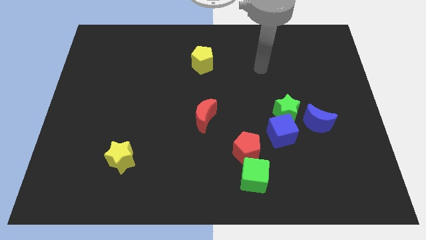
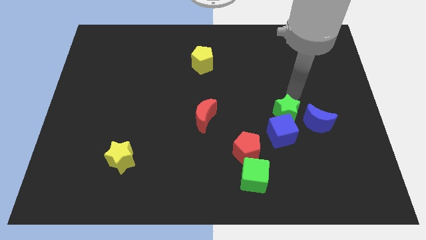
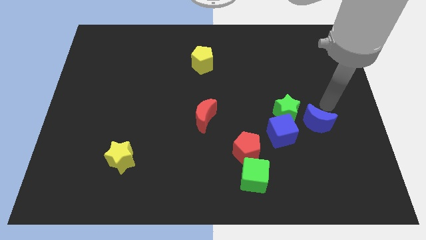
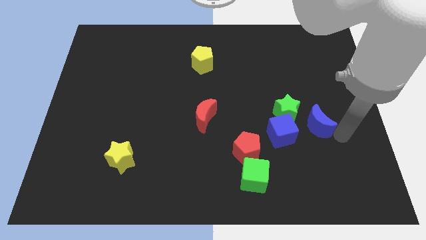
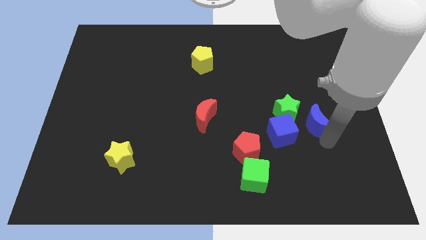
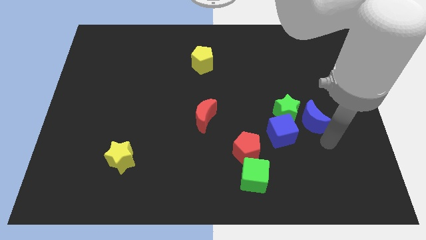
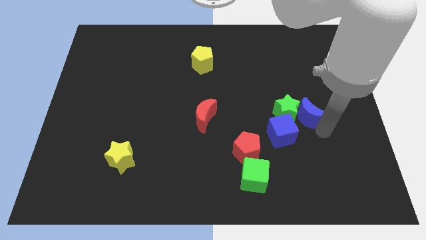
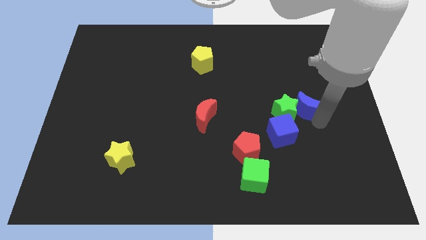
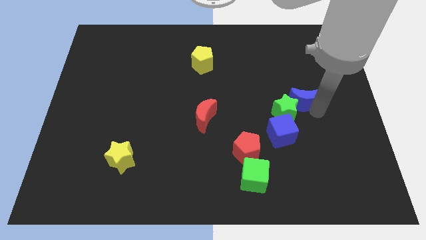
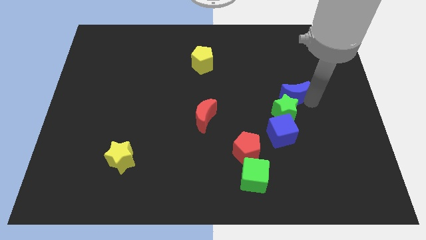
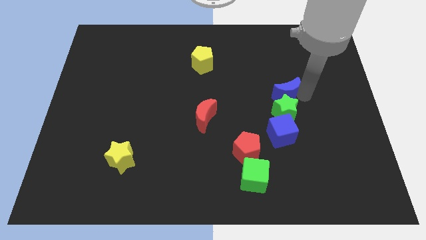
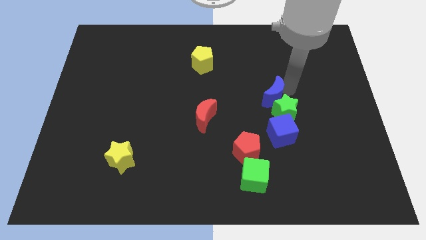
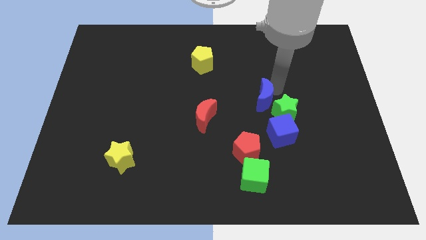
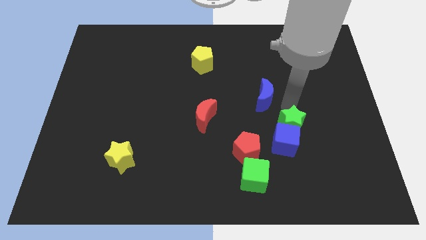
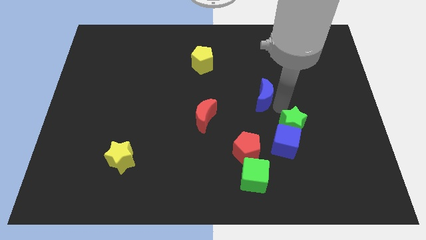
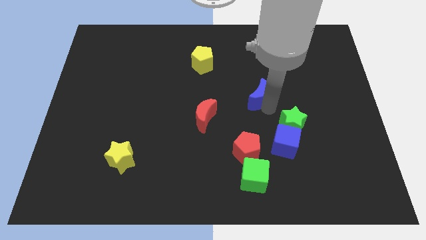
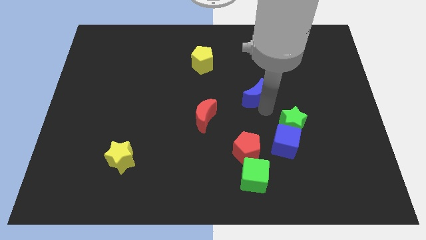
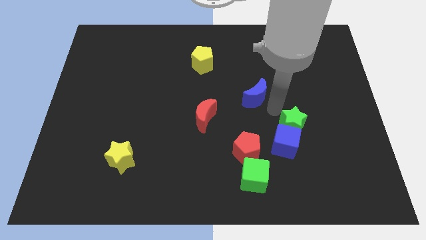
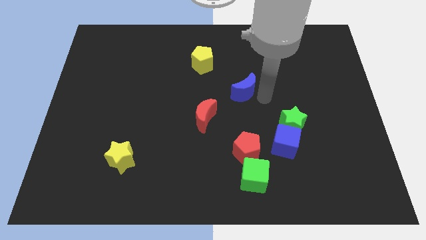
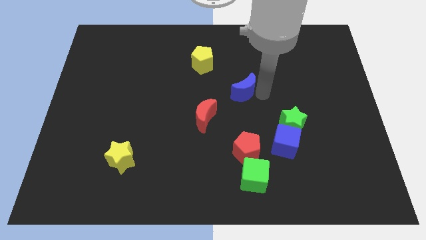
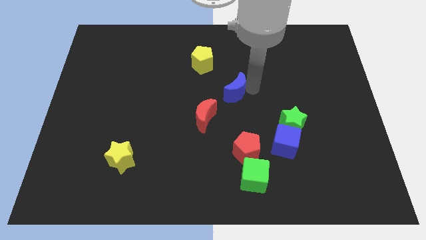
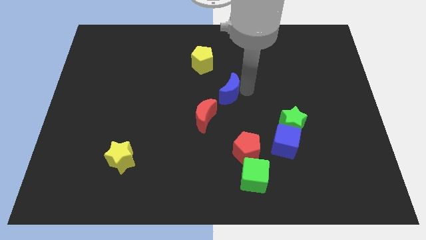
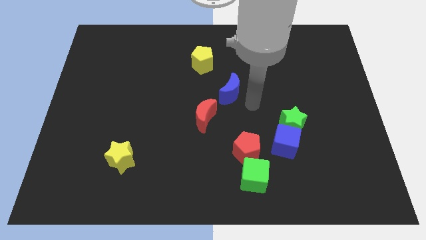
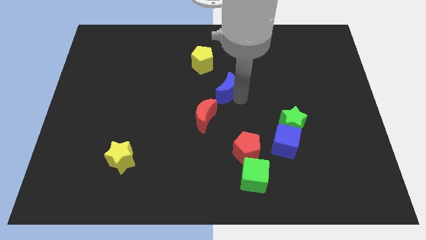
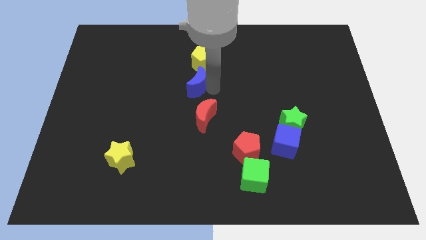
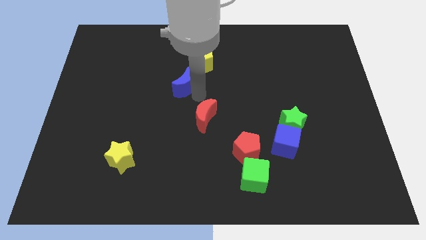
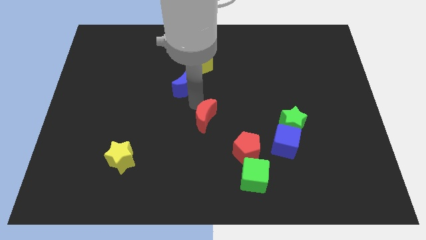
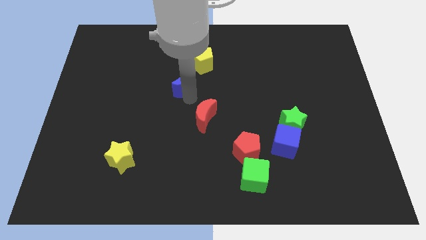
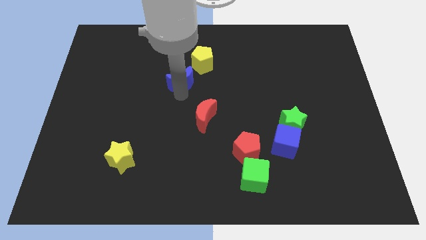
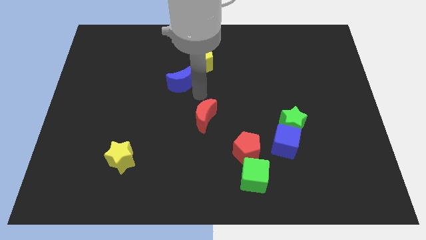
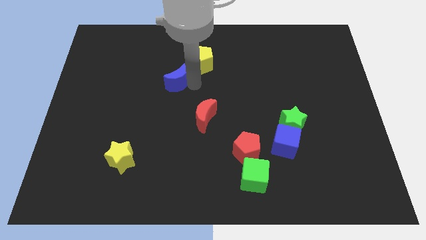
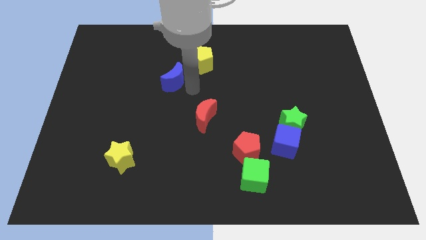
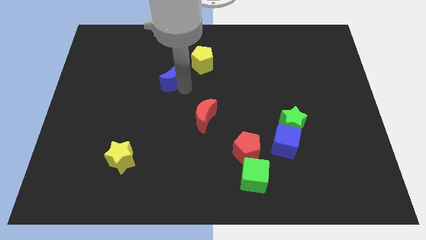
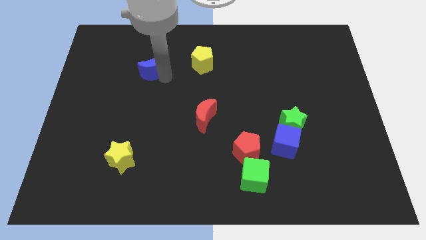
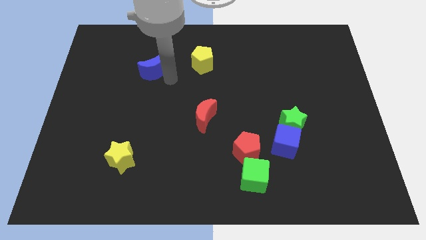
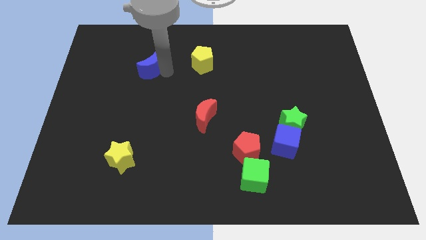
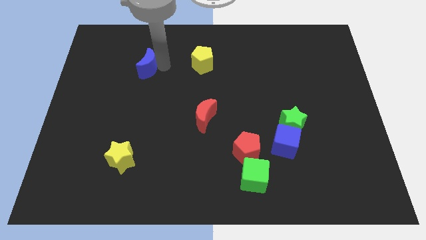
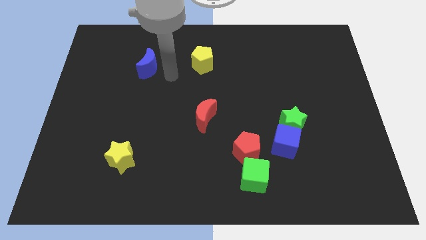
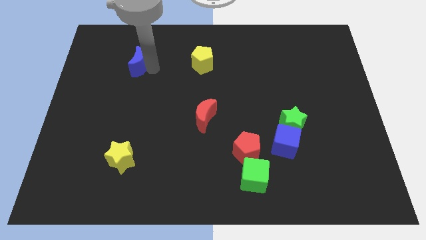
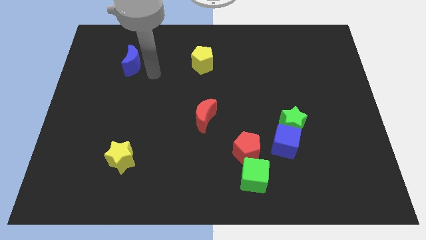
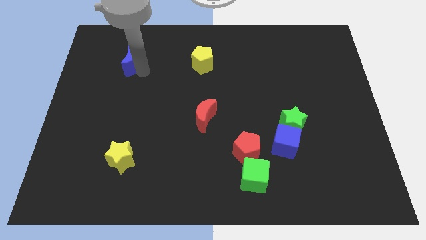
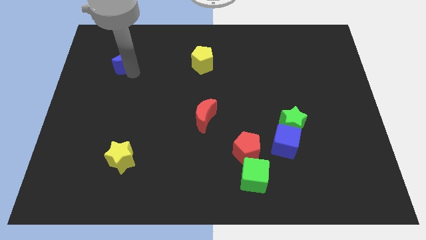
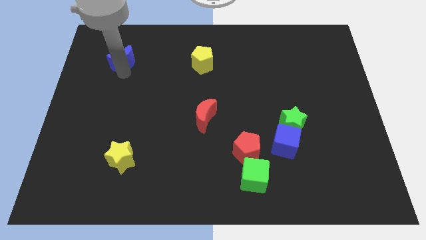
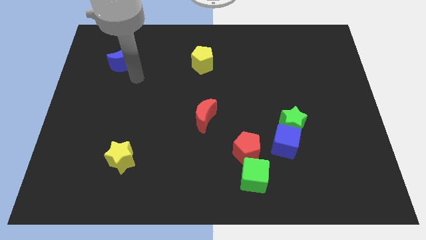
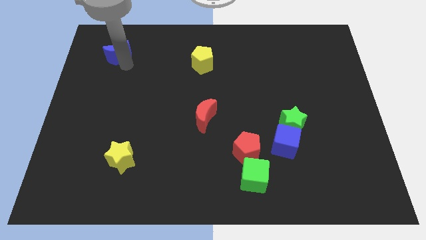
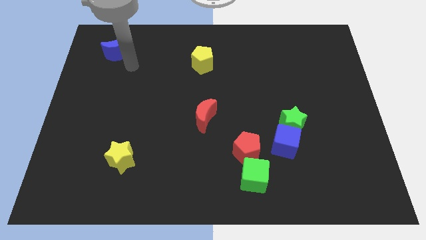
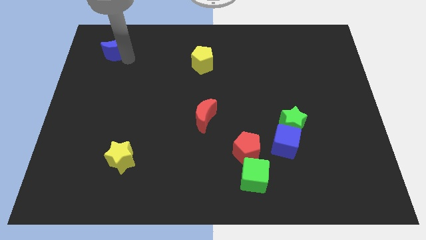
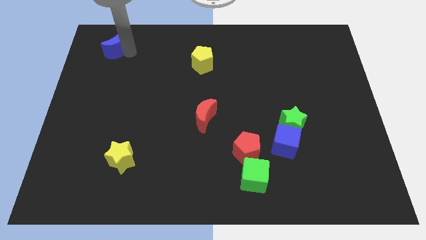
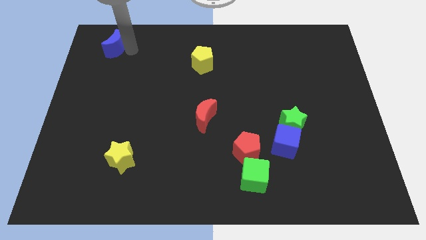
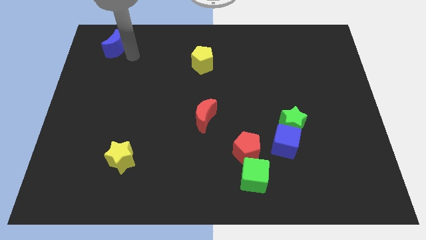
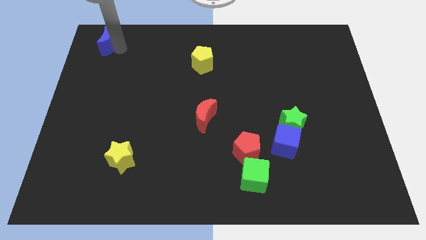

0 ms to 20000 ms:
push the blue moon to the top left of the board

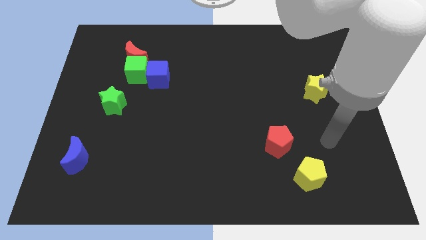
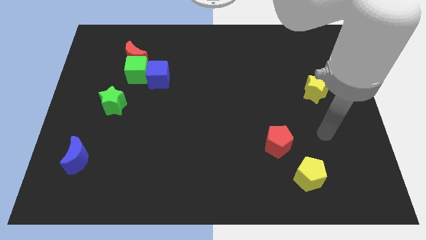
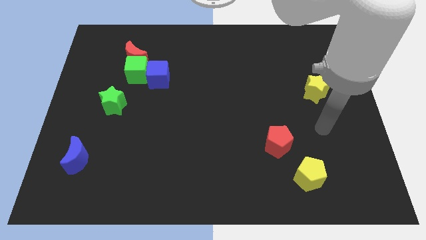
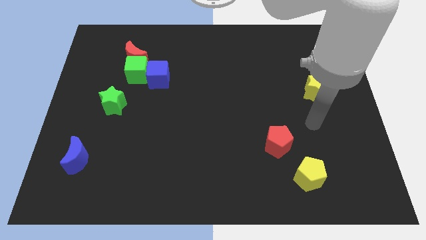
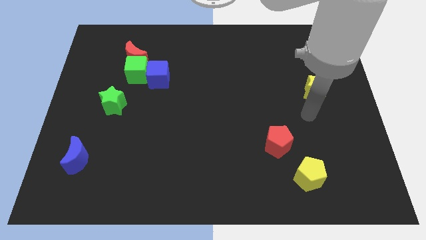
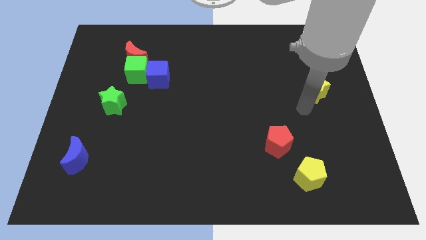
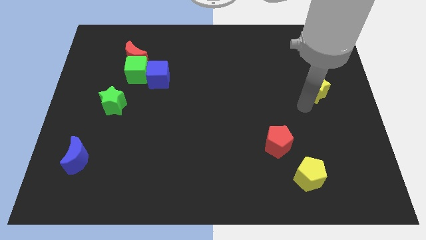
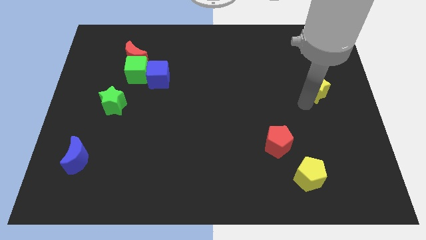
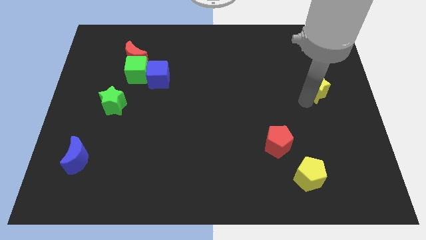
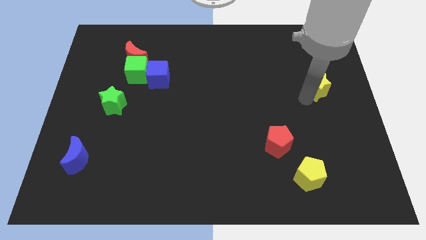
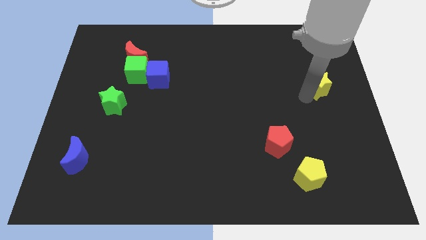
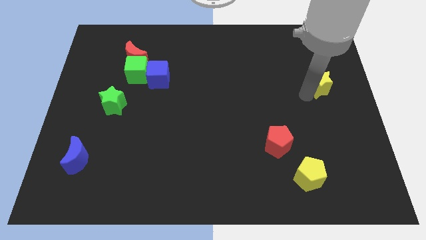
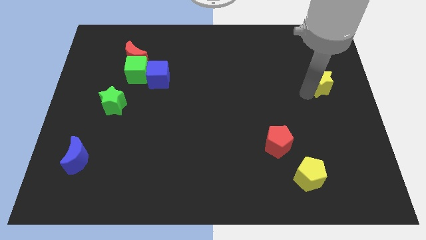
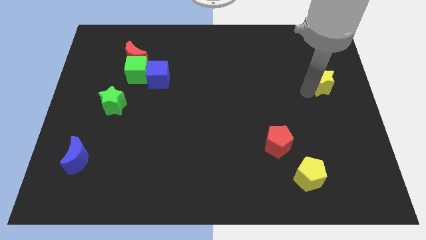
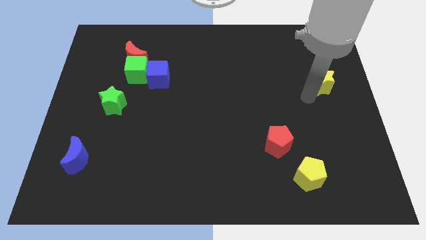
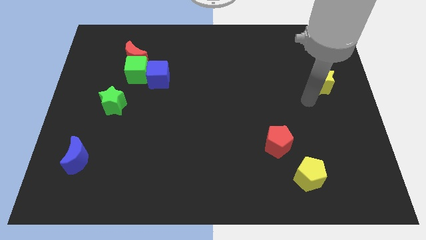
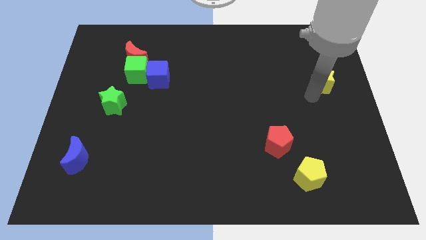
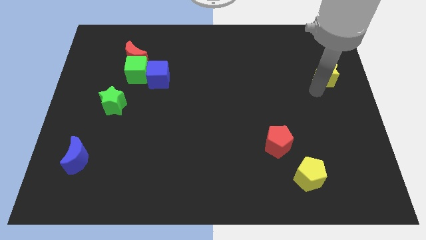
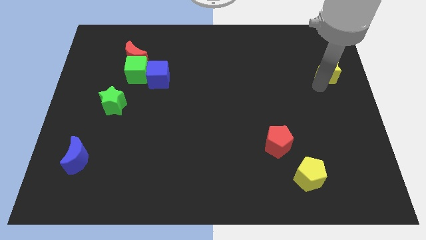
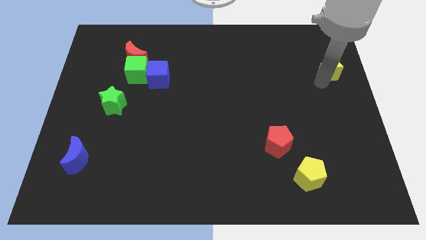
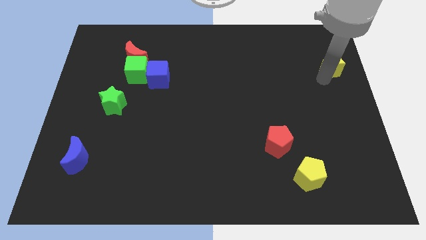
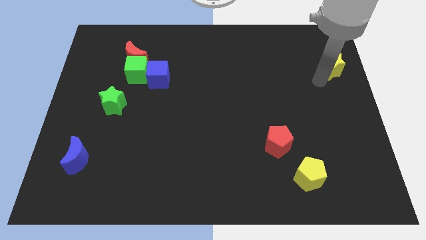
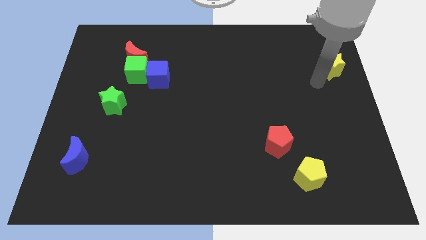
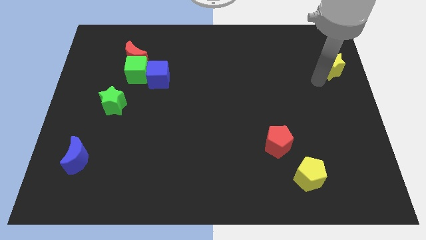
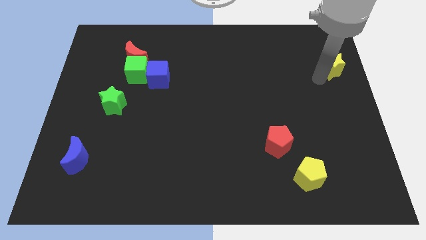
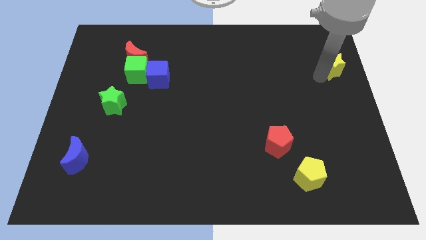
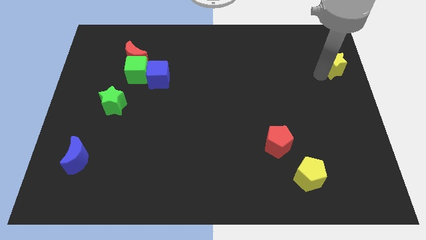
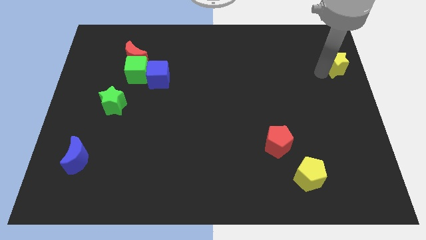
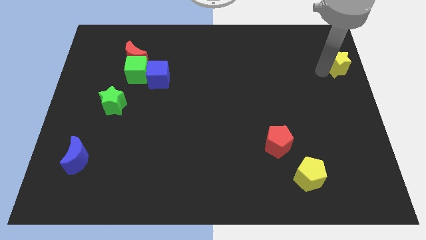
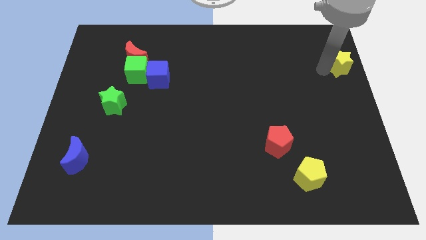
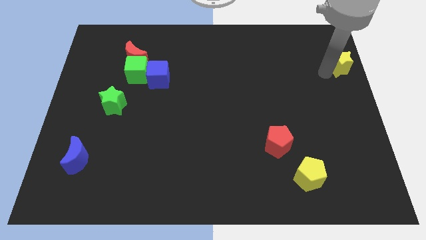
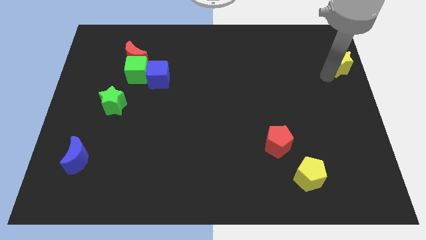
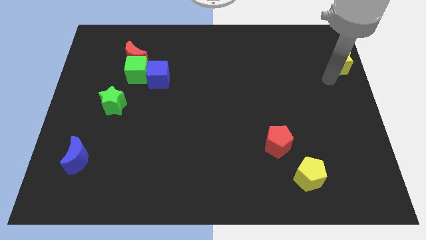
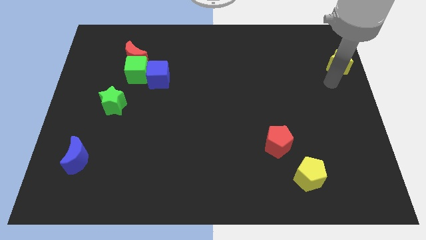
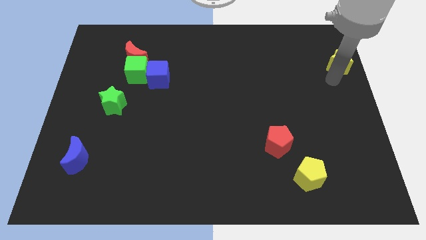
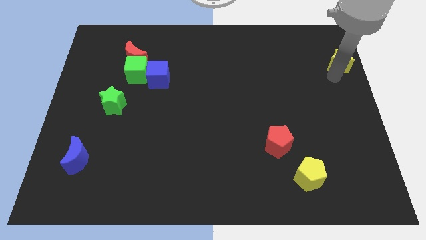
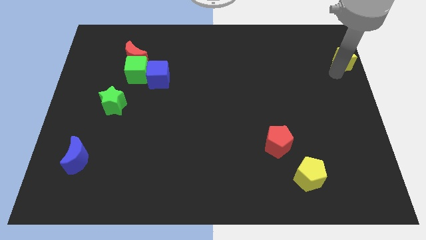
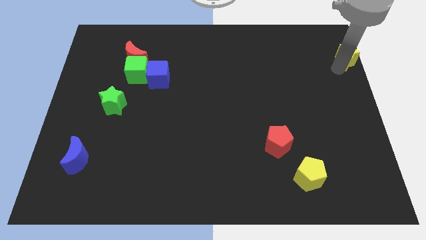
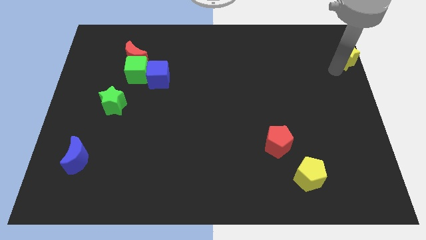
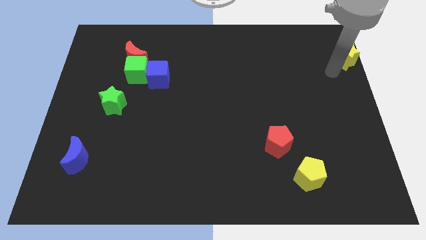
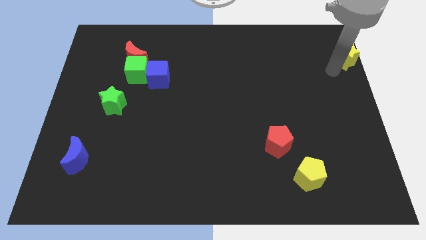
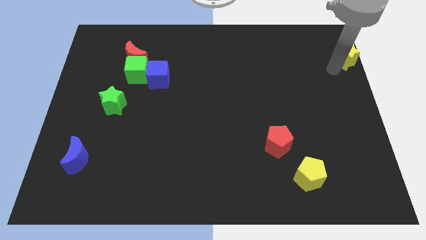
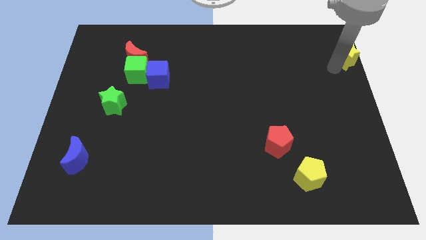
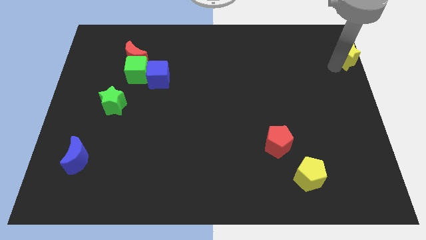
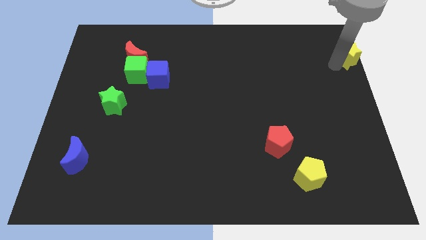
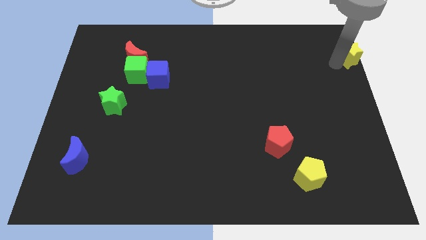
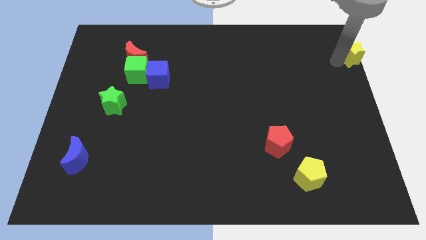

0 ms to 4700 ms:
move the yellow star to the upper right corner
